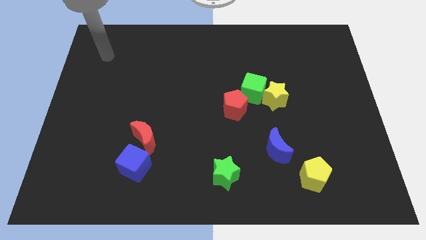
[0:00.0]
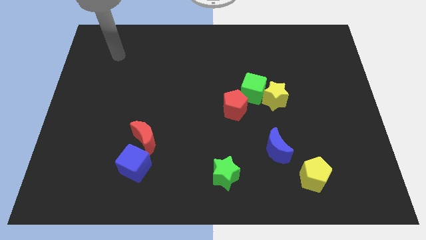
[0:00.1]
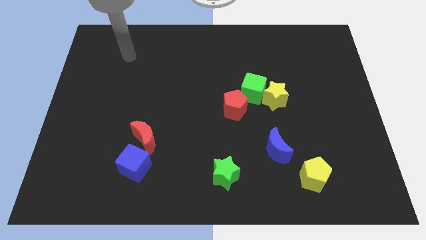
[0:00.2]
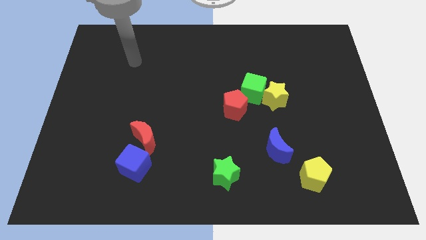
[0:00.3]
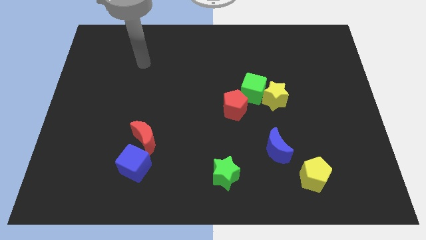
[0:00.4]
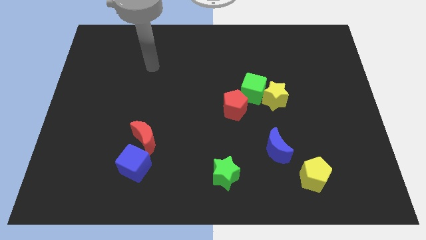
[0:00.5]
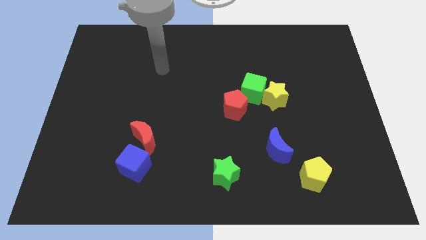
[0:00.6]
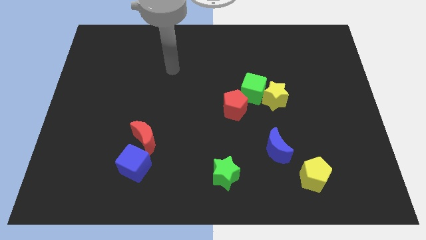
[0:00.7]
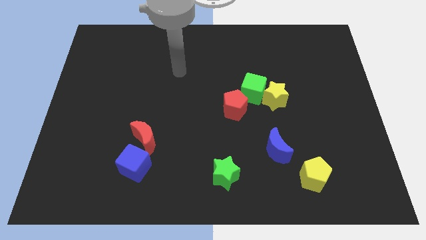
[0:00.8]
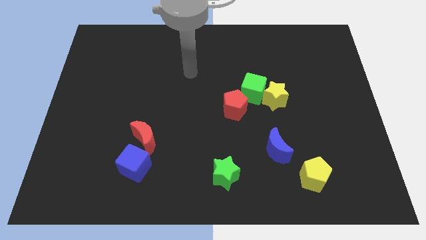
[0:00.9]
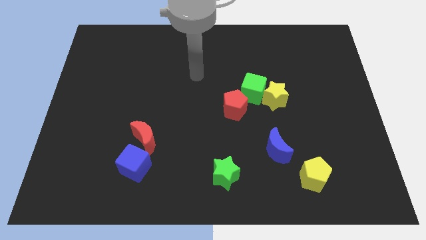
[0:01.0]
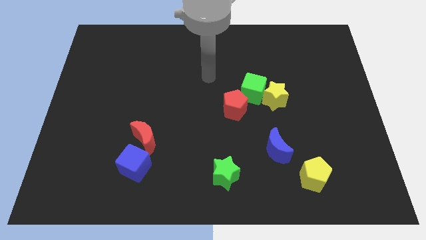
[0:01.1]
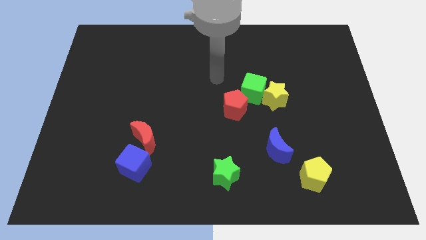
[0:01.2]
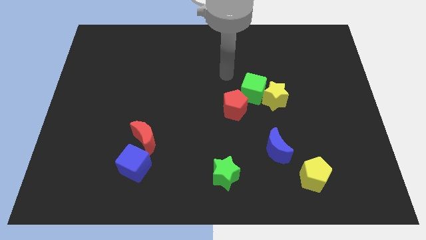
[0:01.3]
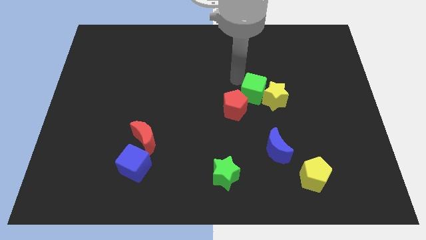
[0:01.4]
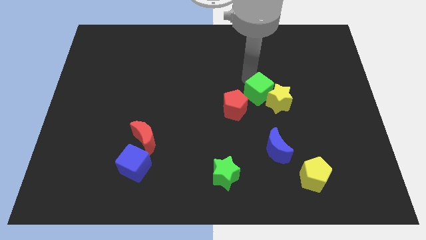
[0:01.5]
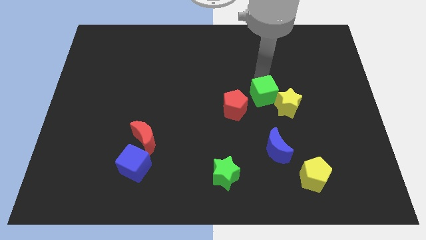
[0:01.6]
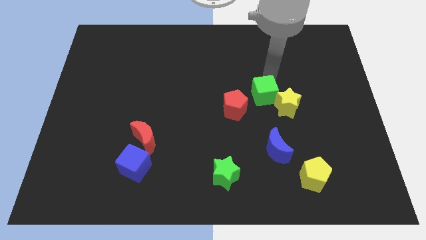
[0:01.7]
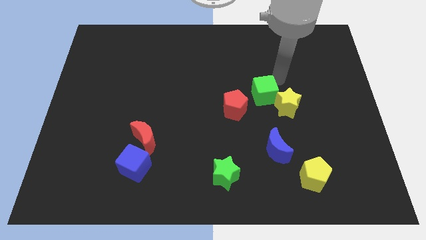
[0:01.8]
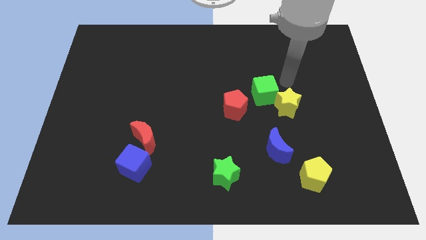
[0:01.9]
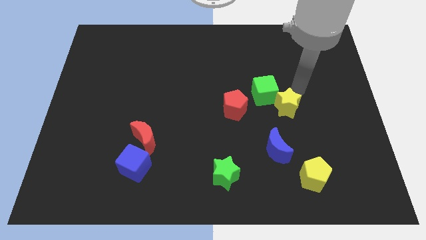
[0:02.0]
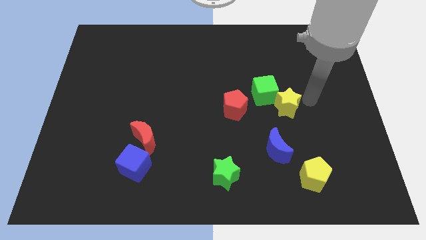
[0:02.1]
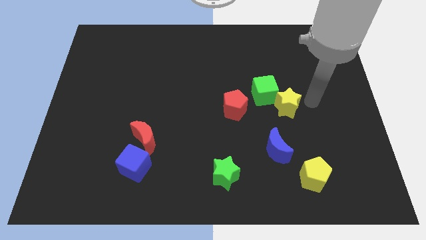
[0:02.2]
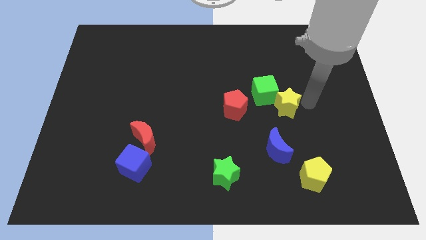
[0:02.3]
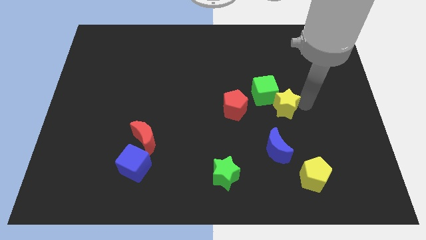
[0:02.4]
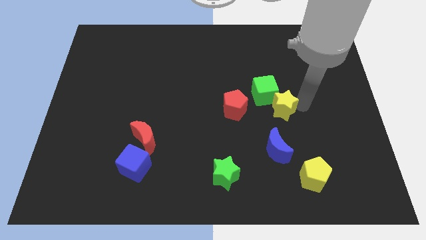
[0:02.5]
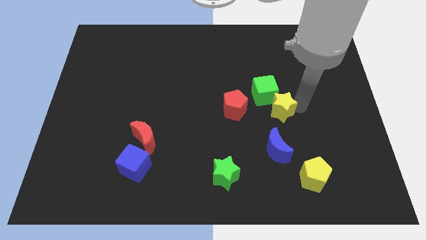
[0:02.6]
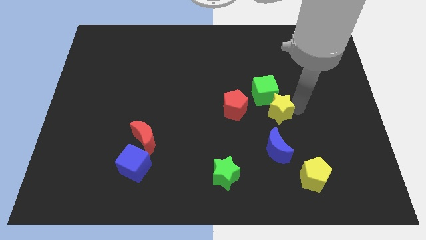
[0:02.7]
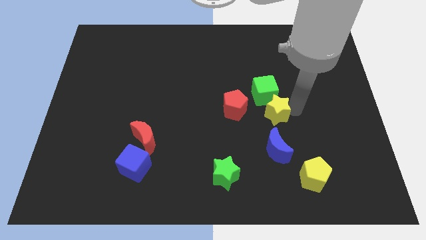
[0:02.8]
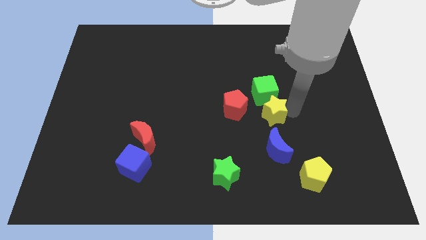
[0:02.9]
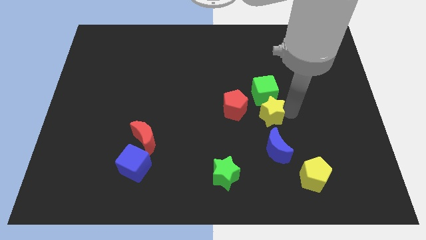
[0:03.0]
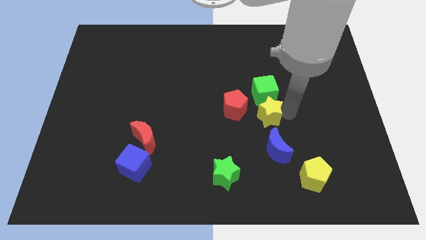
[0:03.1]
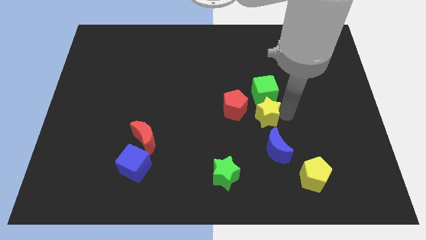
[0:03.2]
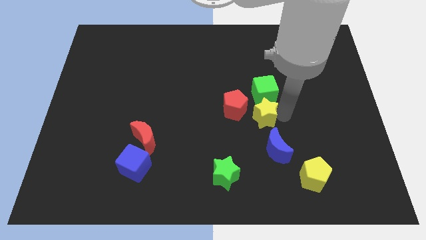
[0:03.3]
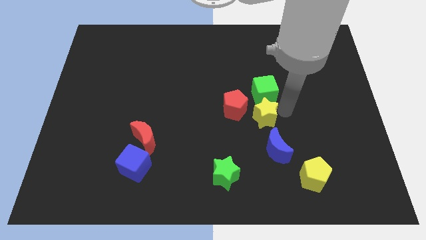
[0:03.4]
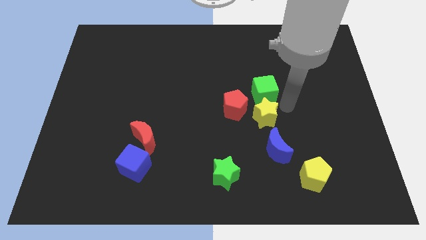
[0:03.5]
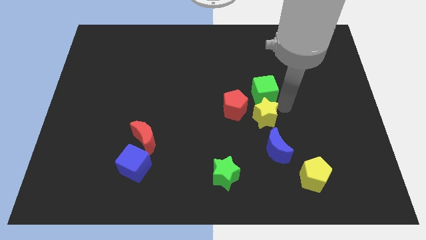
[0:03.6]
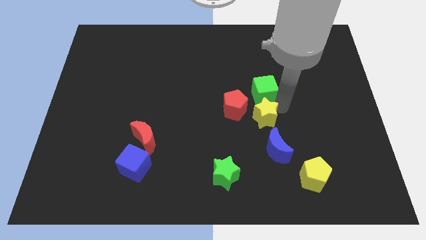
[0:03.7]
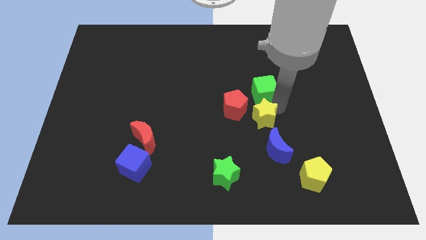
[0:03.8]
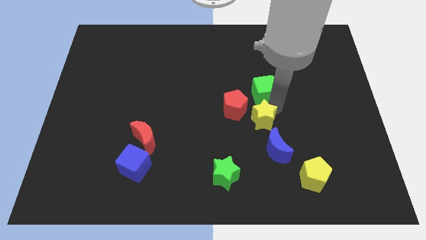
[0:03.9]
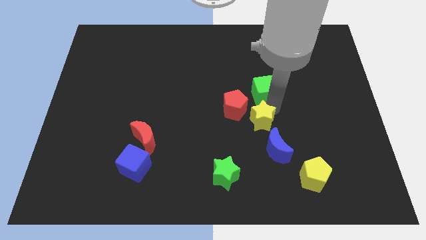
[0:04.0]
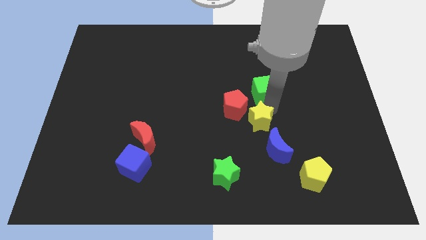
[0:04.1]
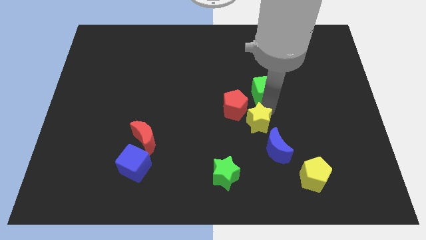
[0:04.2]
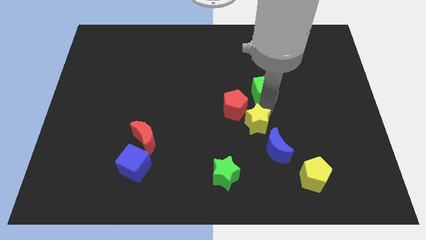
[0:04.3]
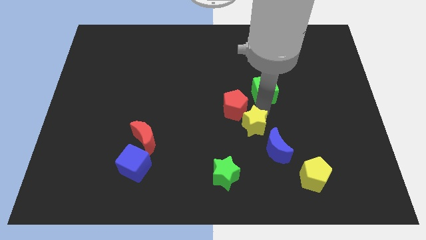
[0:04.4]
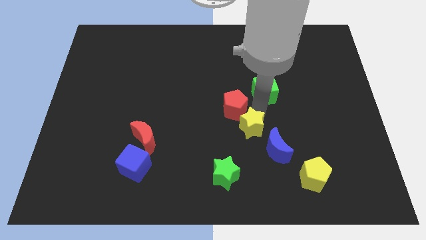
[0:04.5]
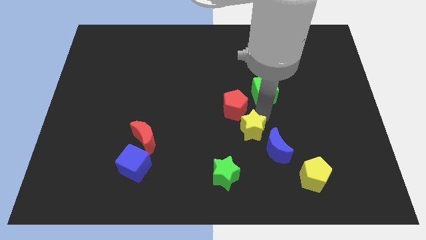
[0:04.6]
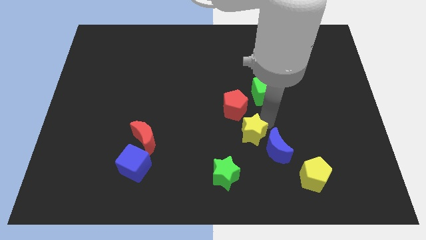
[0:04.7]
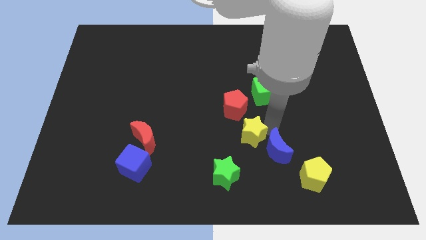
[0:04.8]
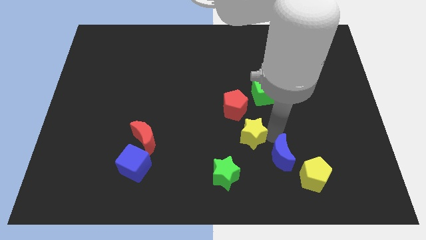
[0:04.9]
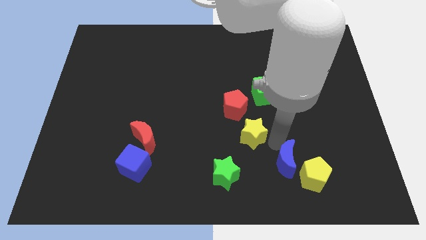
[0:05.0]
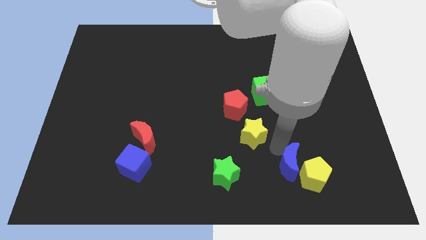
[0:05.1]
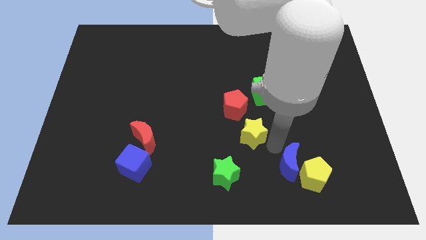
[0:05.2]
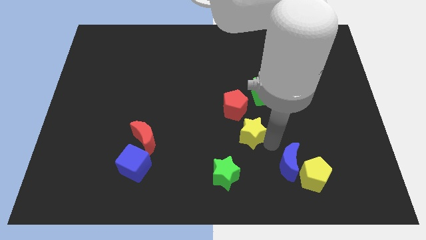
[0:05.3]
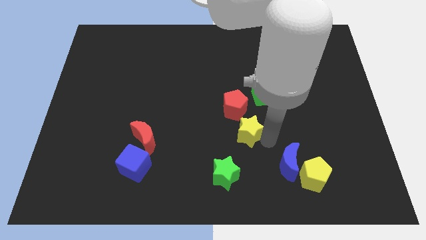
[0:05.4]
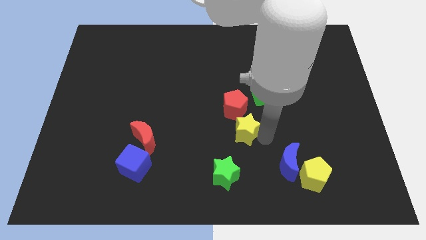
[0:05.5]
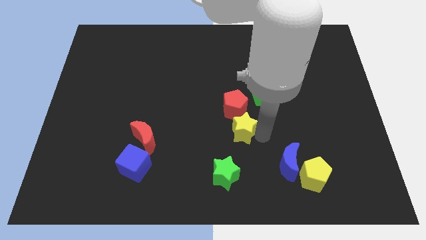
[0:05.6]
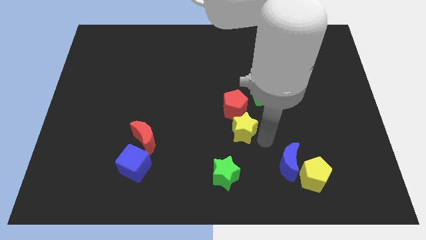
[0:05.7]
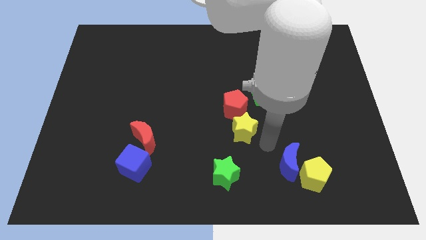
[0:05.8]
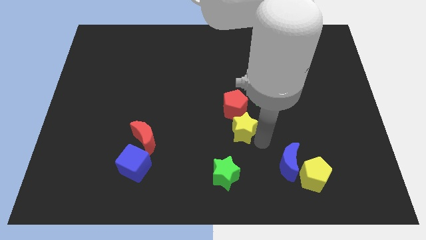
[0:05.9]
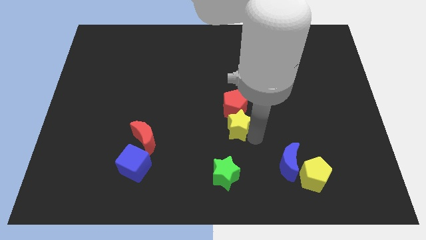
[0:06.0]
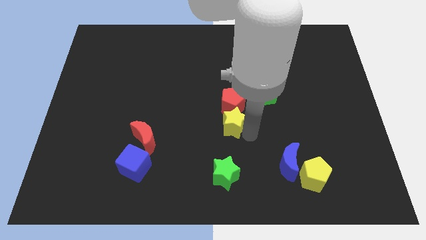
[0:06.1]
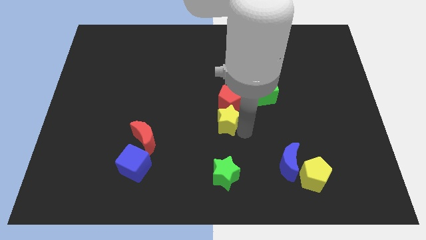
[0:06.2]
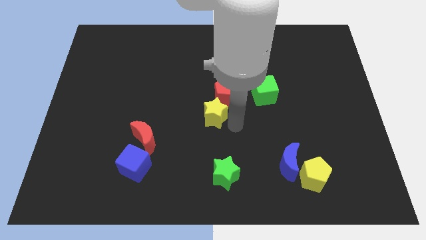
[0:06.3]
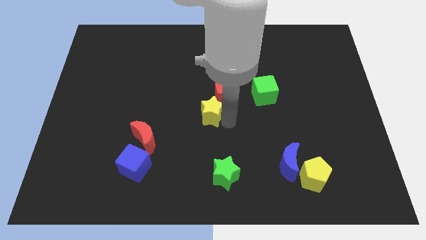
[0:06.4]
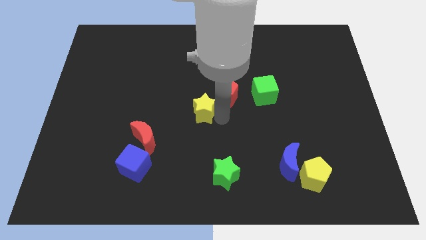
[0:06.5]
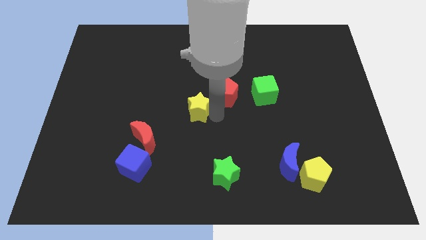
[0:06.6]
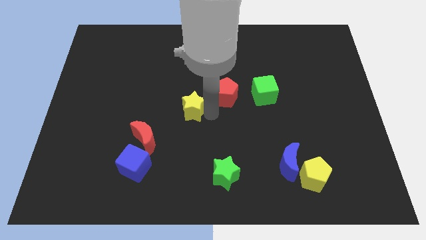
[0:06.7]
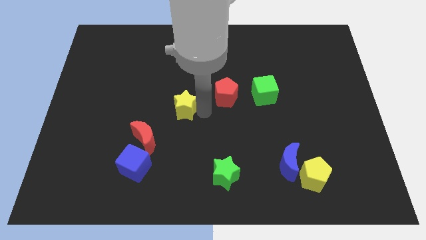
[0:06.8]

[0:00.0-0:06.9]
slide the yellow star left

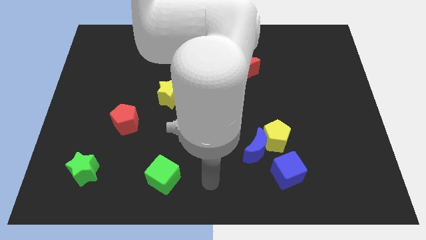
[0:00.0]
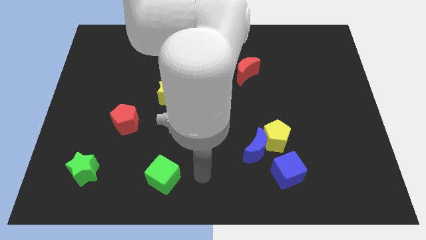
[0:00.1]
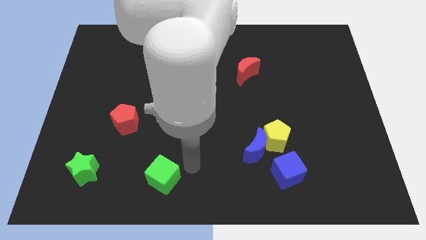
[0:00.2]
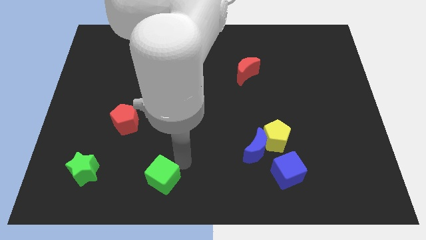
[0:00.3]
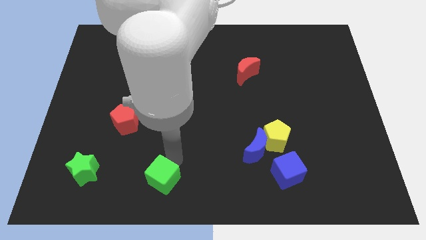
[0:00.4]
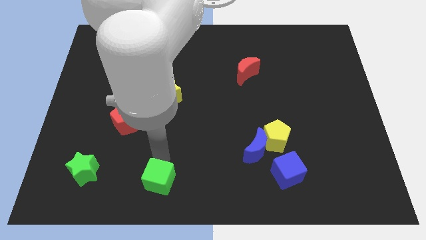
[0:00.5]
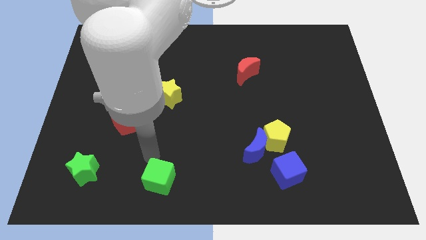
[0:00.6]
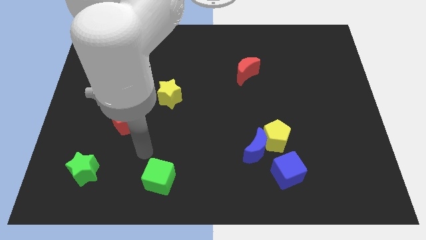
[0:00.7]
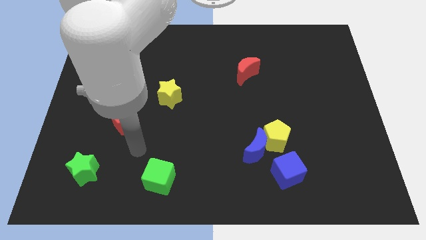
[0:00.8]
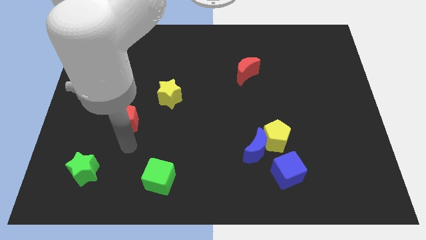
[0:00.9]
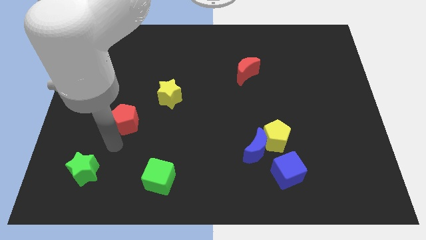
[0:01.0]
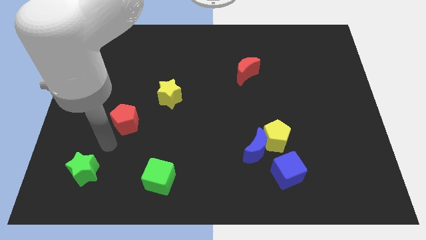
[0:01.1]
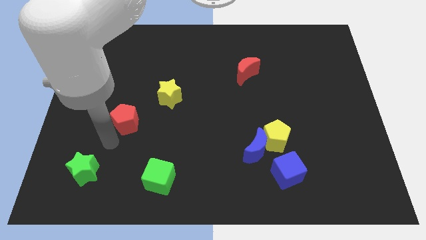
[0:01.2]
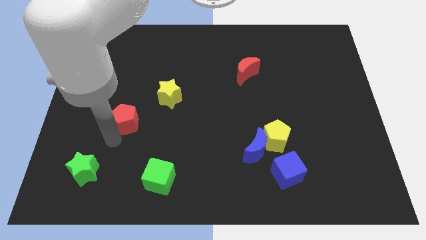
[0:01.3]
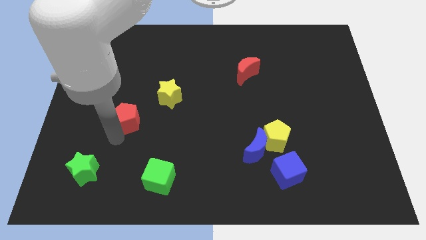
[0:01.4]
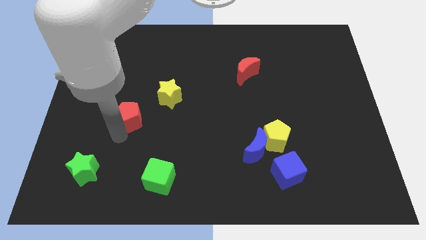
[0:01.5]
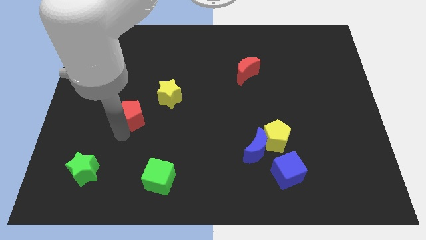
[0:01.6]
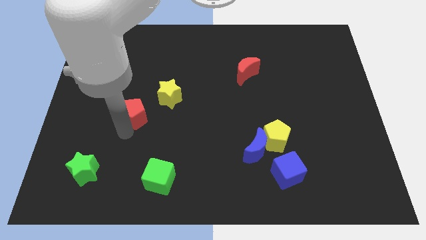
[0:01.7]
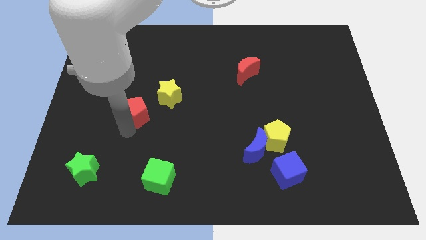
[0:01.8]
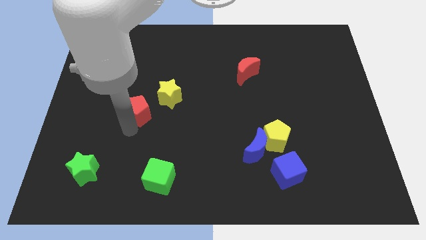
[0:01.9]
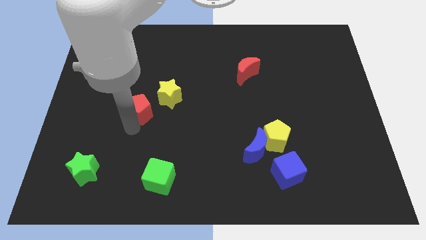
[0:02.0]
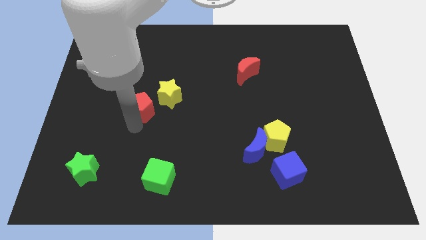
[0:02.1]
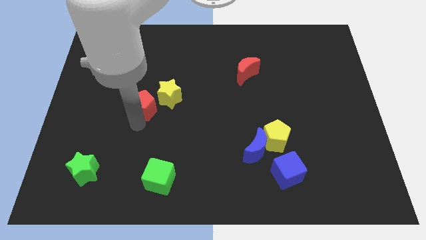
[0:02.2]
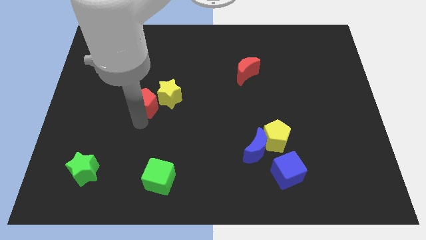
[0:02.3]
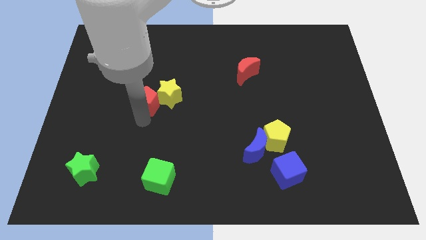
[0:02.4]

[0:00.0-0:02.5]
move the red pentagon slightly up and to the right diagonally
